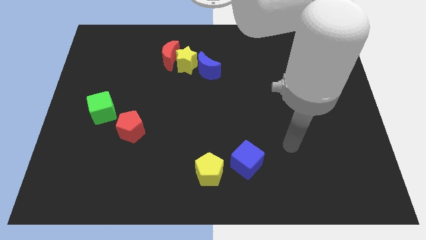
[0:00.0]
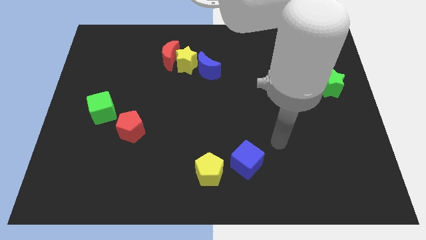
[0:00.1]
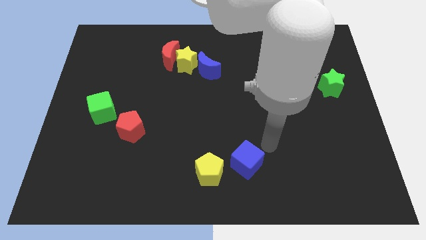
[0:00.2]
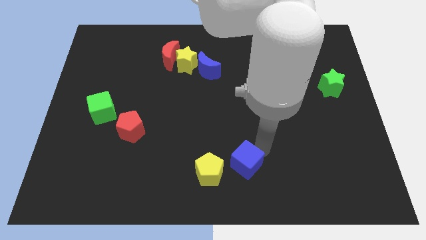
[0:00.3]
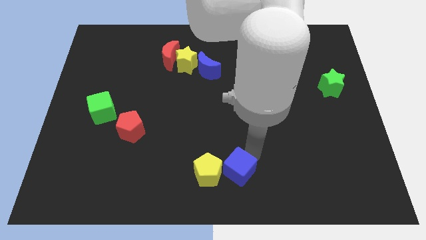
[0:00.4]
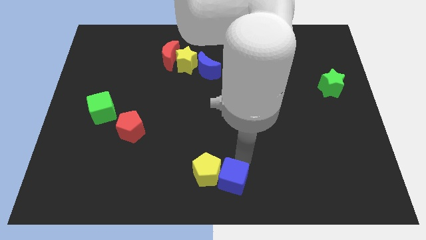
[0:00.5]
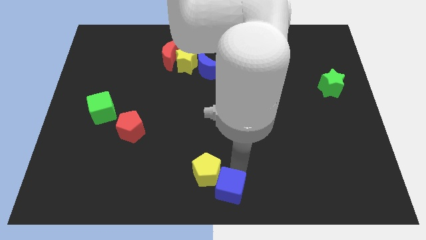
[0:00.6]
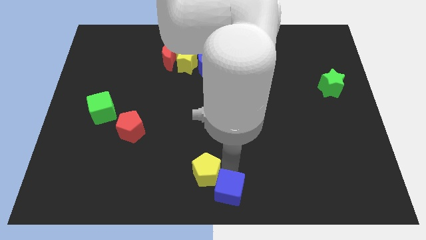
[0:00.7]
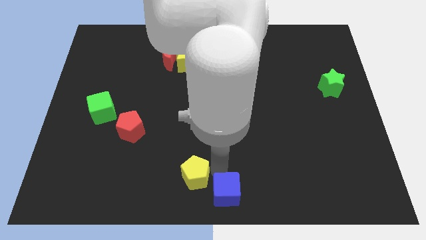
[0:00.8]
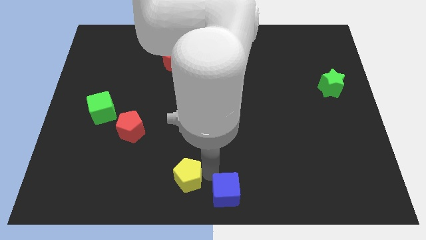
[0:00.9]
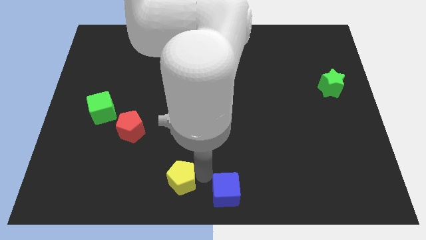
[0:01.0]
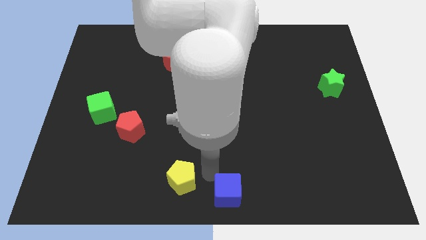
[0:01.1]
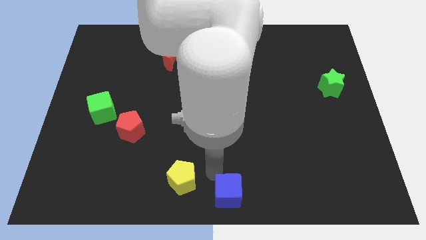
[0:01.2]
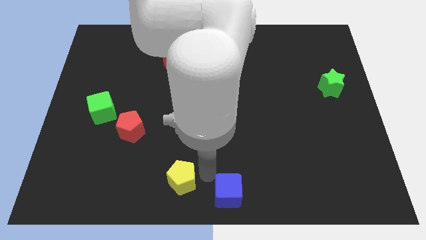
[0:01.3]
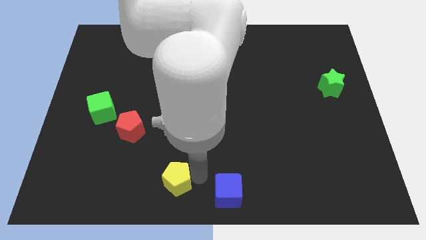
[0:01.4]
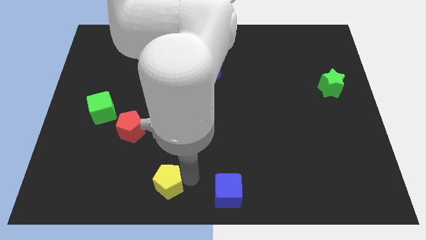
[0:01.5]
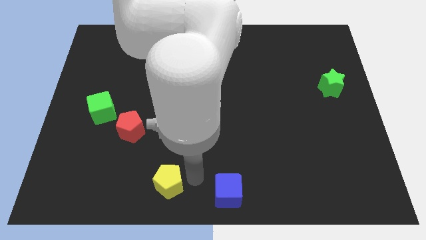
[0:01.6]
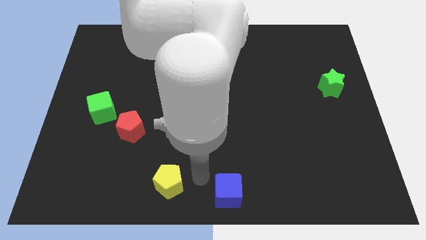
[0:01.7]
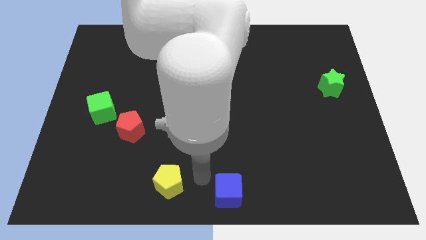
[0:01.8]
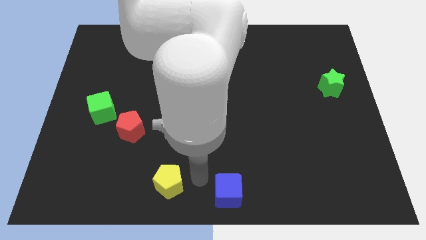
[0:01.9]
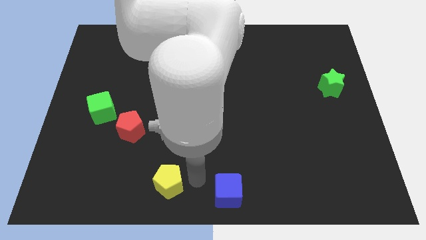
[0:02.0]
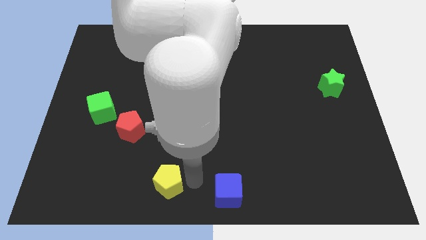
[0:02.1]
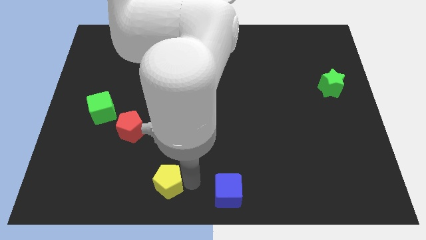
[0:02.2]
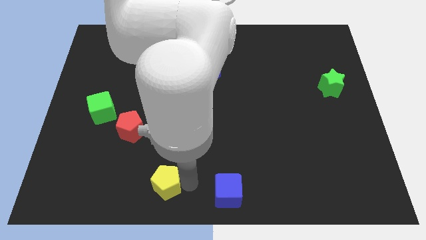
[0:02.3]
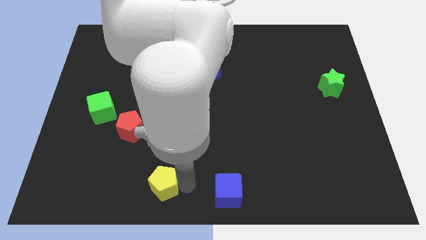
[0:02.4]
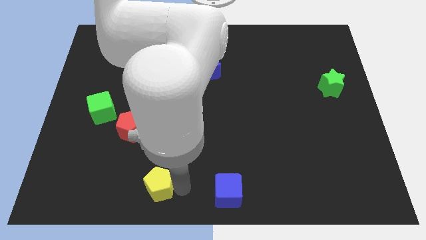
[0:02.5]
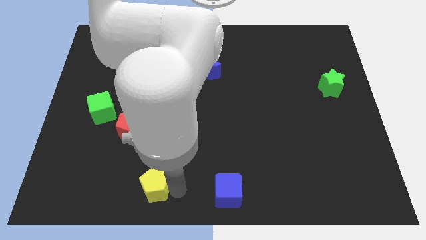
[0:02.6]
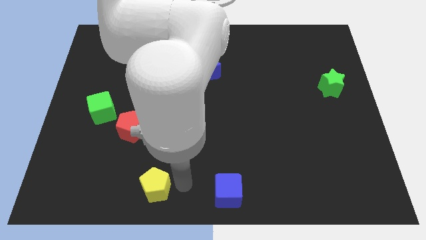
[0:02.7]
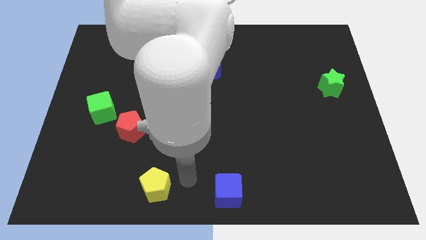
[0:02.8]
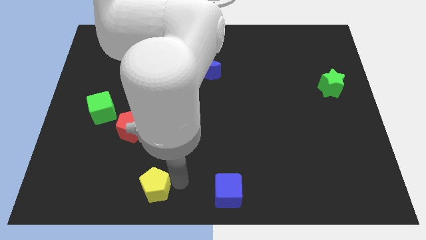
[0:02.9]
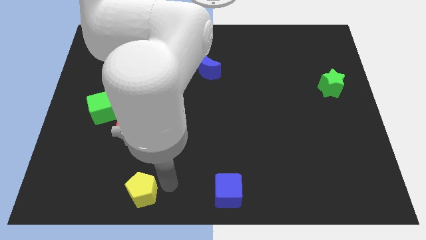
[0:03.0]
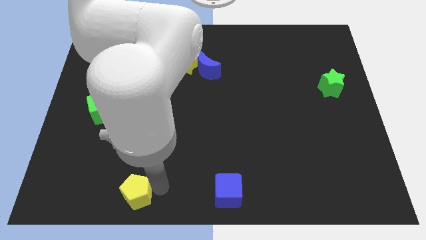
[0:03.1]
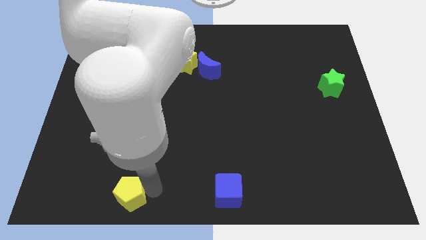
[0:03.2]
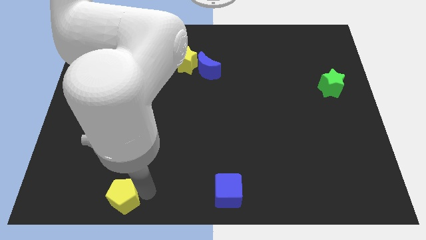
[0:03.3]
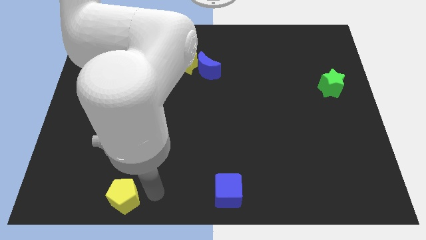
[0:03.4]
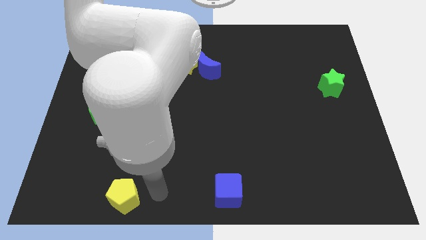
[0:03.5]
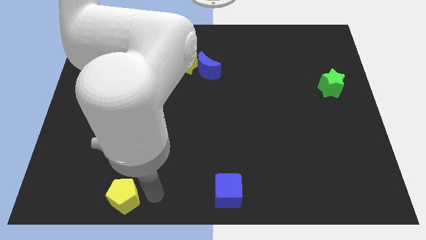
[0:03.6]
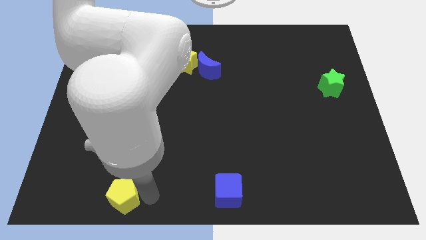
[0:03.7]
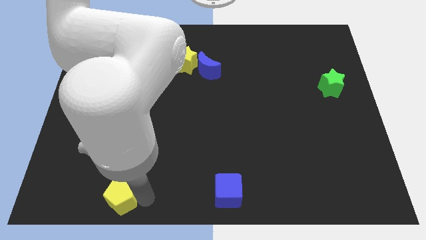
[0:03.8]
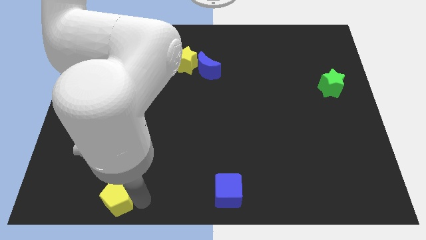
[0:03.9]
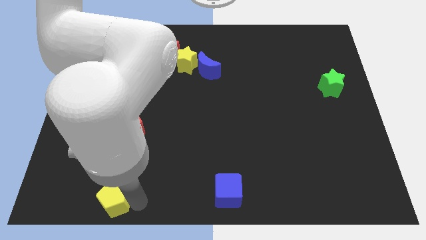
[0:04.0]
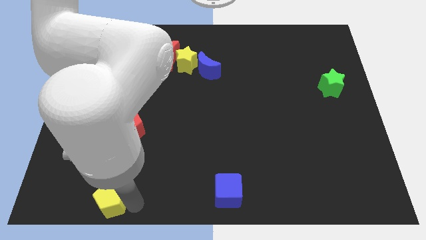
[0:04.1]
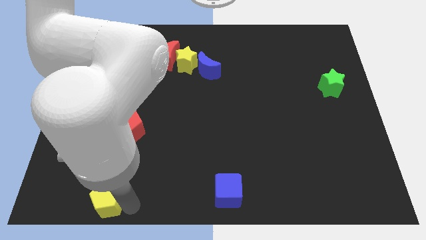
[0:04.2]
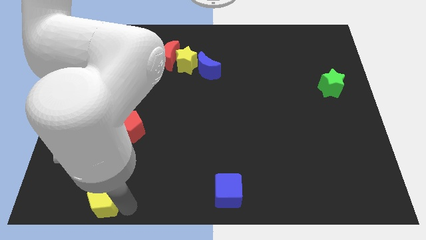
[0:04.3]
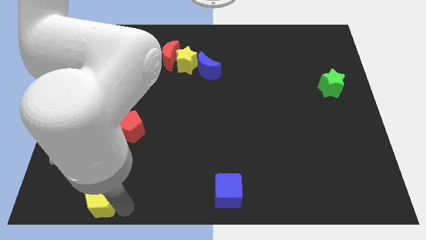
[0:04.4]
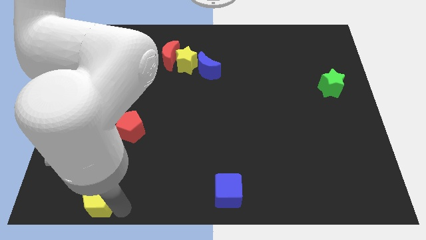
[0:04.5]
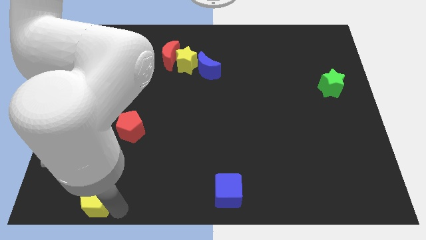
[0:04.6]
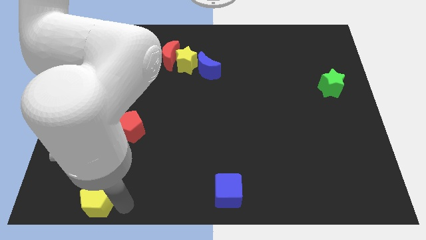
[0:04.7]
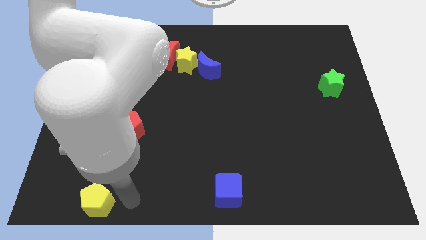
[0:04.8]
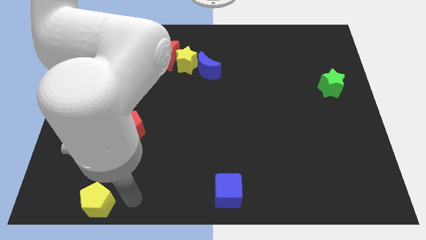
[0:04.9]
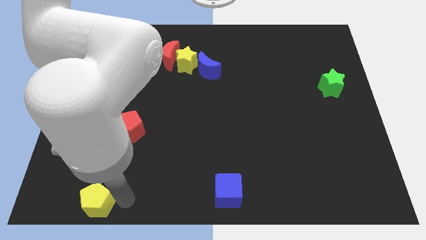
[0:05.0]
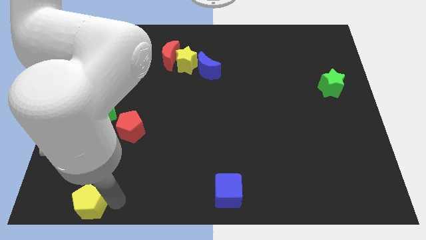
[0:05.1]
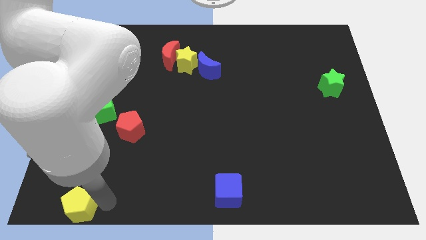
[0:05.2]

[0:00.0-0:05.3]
slide the yellow pentagon to the bottom left

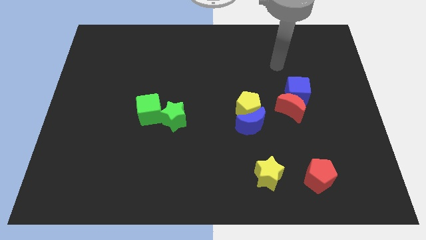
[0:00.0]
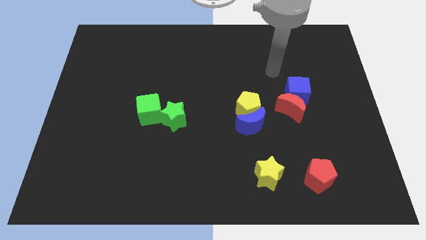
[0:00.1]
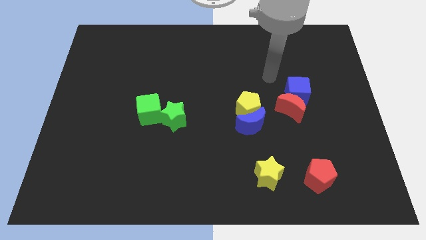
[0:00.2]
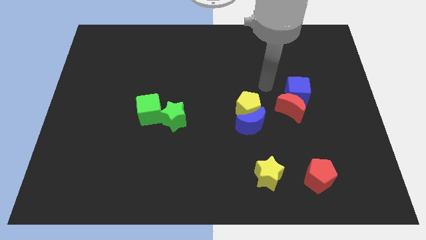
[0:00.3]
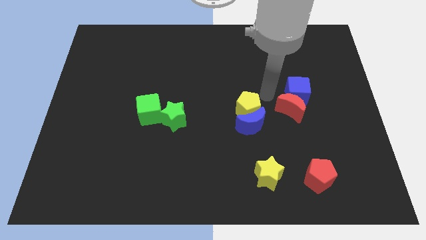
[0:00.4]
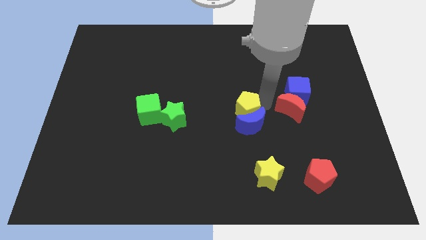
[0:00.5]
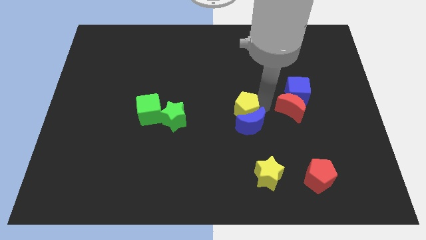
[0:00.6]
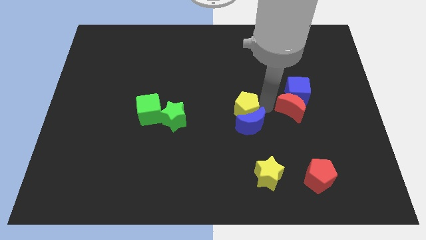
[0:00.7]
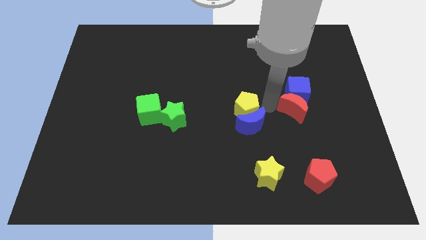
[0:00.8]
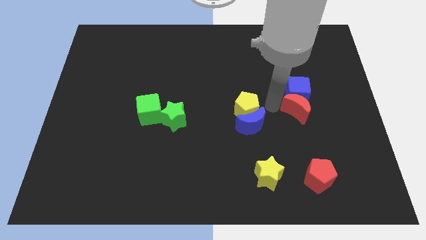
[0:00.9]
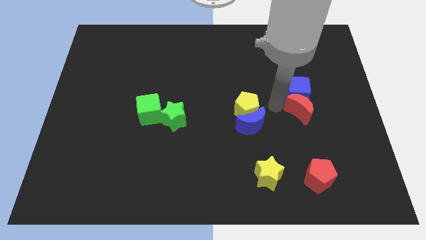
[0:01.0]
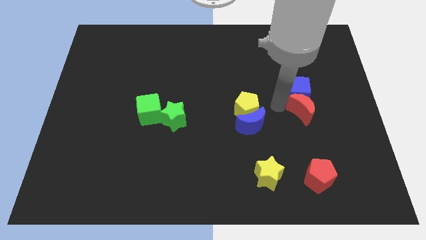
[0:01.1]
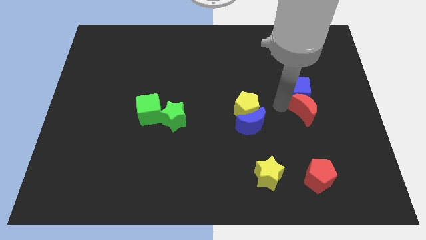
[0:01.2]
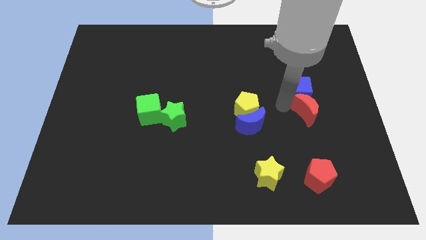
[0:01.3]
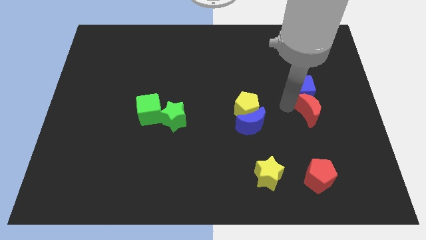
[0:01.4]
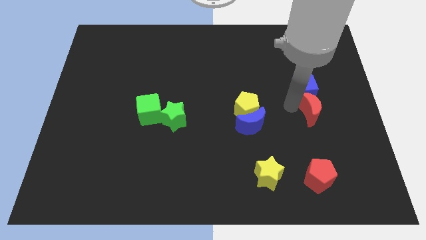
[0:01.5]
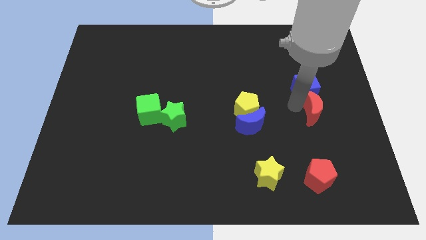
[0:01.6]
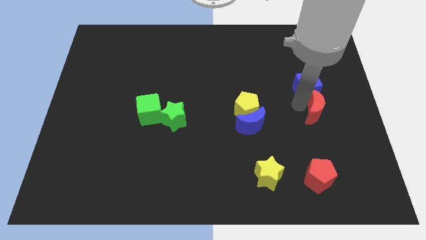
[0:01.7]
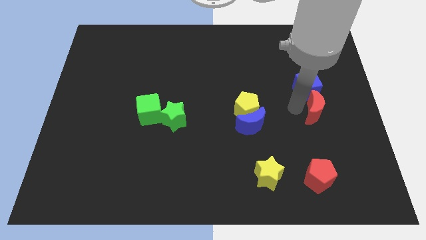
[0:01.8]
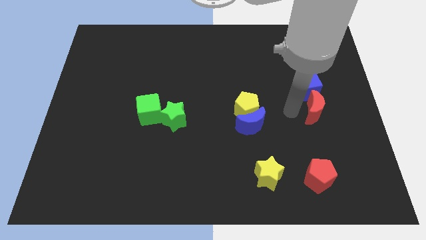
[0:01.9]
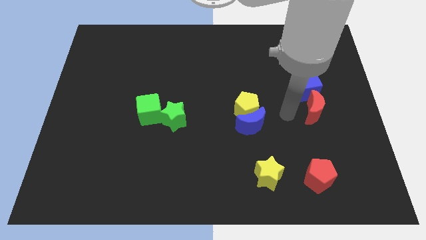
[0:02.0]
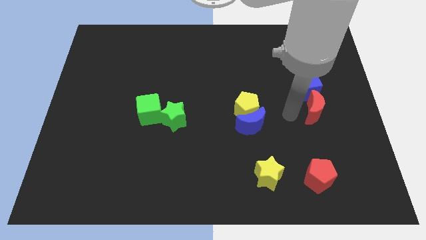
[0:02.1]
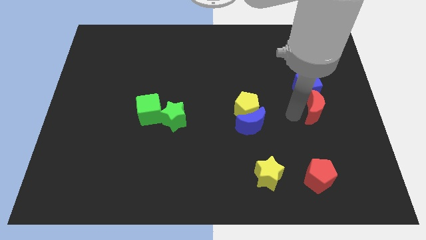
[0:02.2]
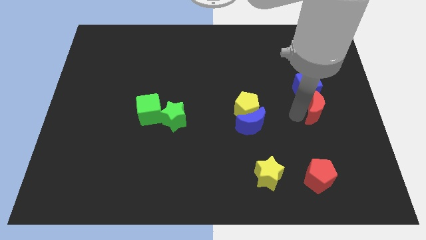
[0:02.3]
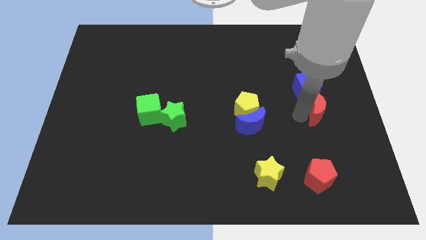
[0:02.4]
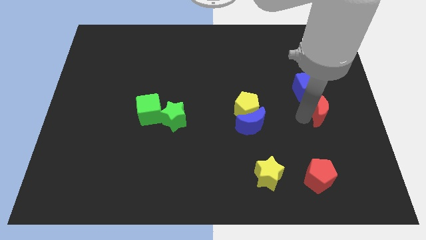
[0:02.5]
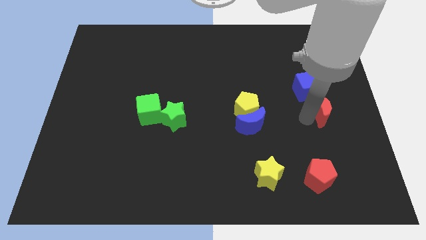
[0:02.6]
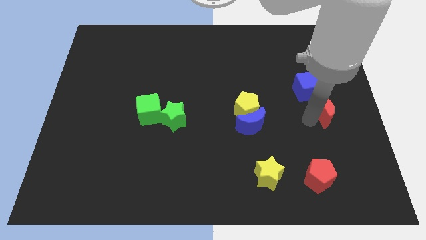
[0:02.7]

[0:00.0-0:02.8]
push the red moon to the right side of the board
